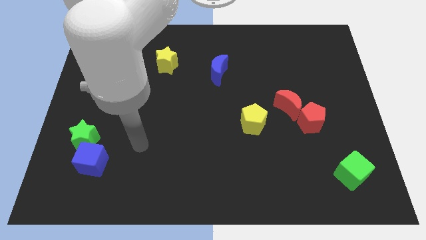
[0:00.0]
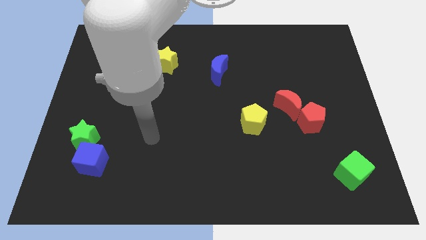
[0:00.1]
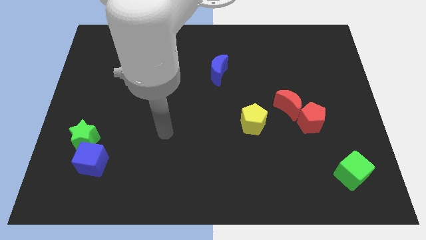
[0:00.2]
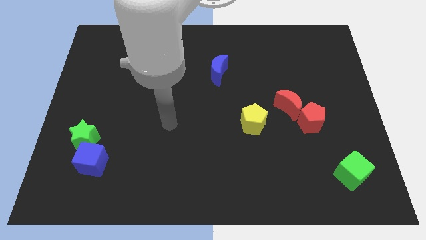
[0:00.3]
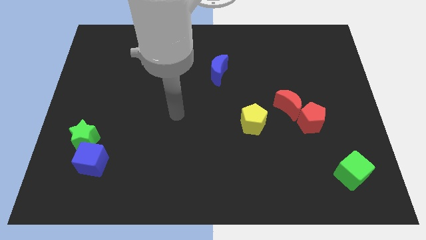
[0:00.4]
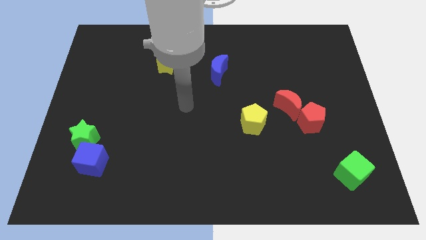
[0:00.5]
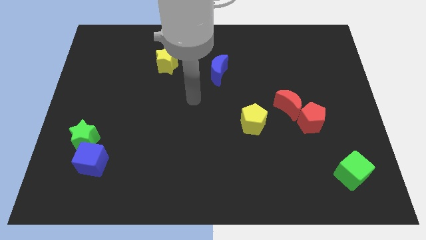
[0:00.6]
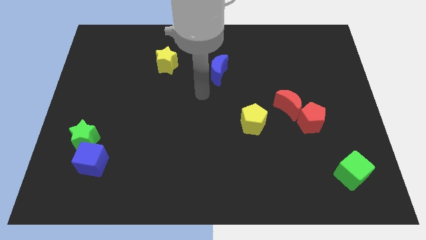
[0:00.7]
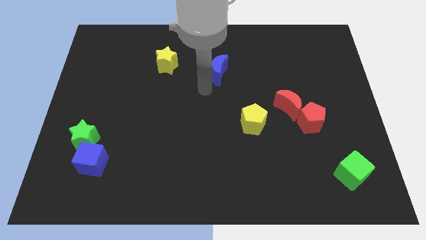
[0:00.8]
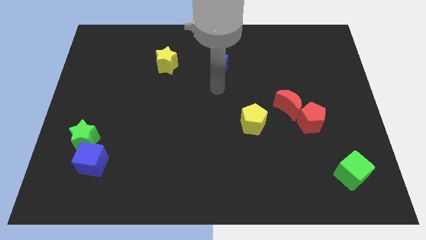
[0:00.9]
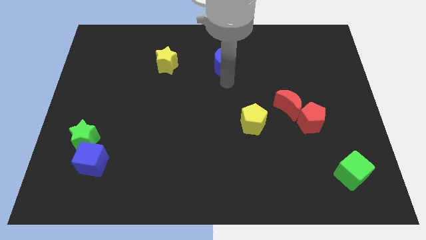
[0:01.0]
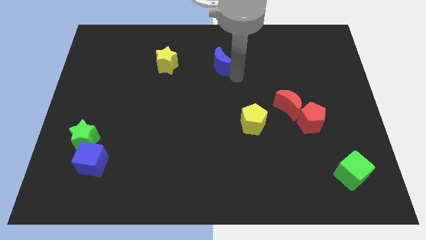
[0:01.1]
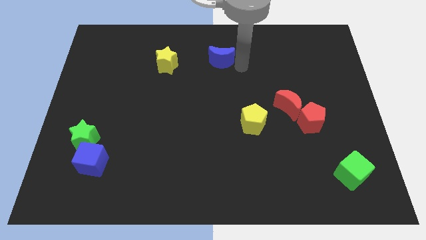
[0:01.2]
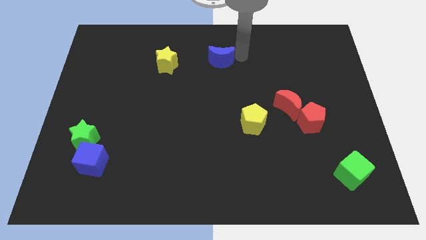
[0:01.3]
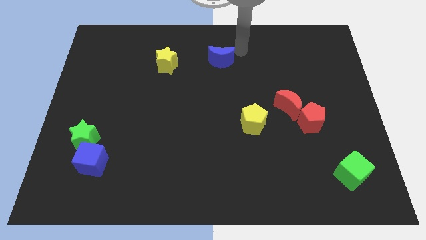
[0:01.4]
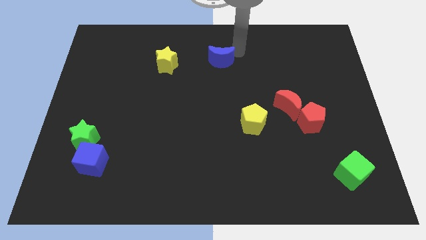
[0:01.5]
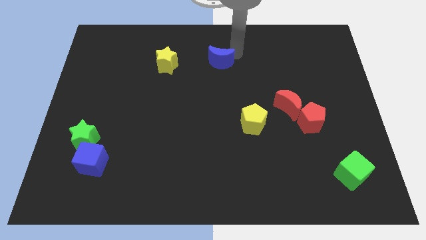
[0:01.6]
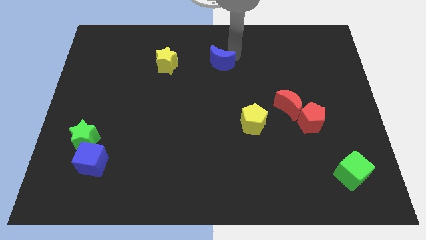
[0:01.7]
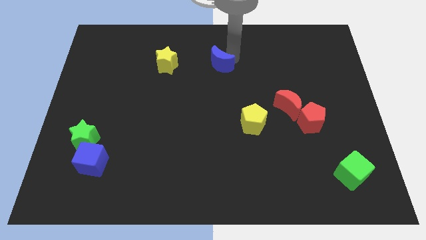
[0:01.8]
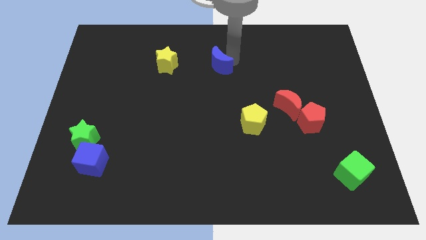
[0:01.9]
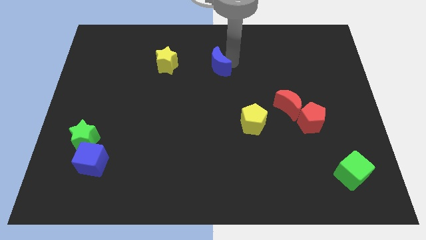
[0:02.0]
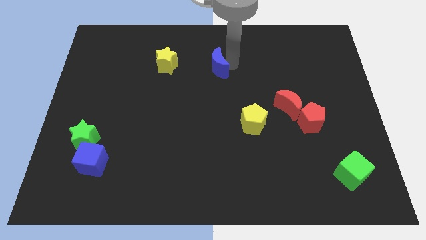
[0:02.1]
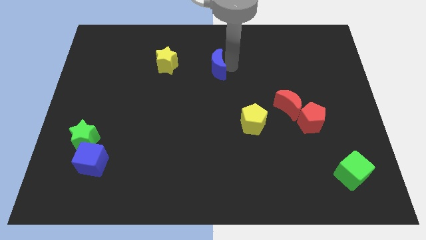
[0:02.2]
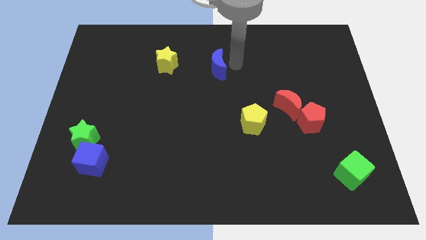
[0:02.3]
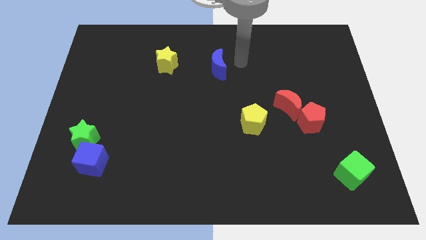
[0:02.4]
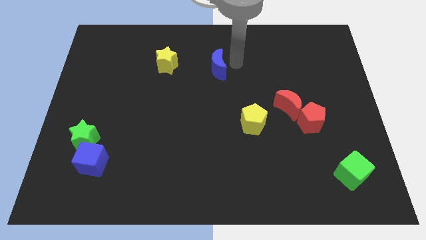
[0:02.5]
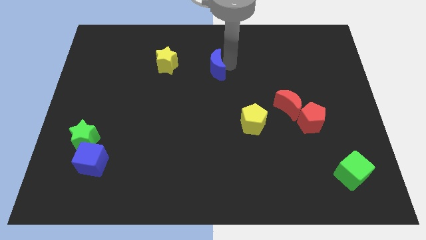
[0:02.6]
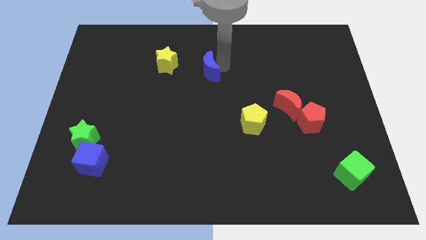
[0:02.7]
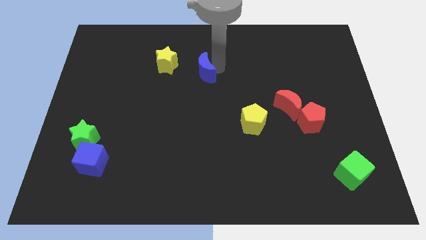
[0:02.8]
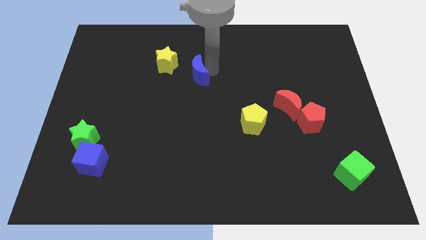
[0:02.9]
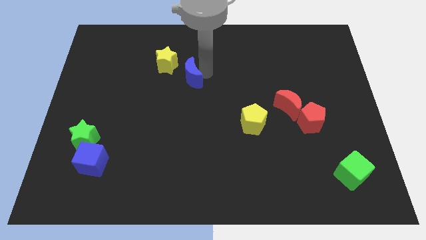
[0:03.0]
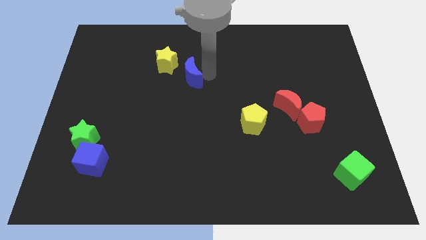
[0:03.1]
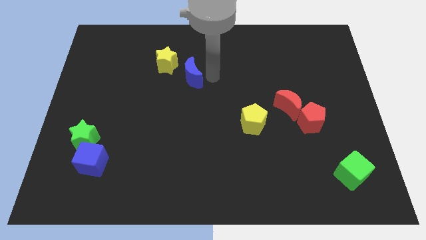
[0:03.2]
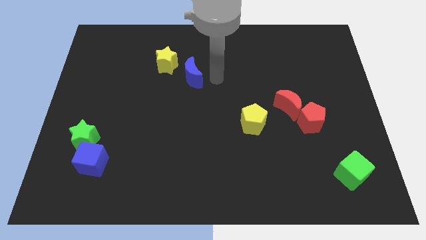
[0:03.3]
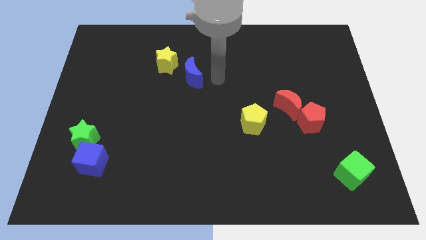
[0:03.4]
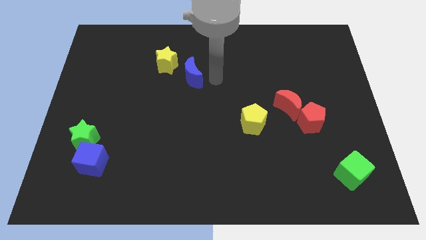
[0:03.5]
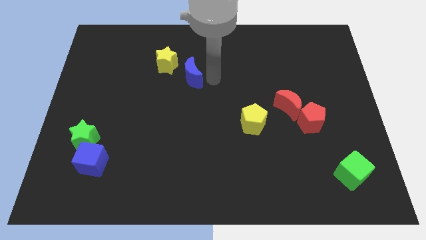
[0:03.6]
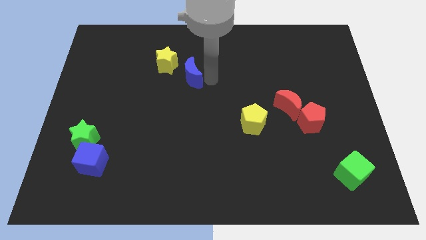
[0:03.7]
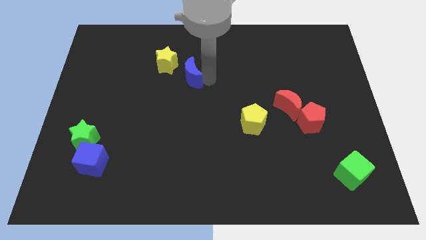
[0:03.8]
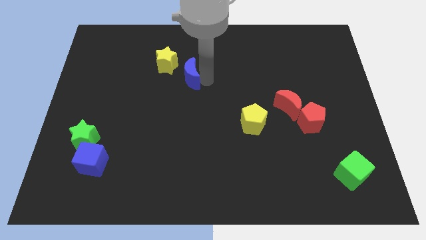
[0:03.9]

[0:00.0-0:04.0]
slightly push the blue moon to the left

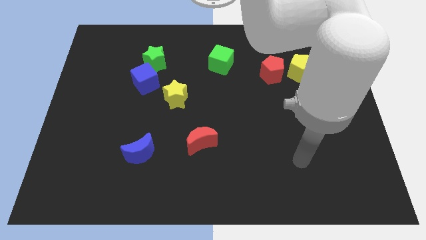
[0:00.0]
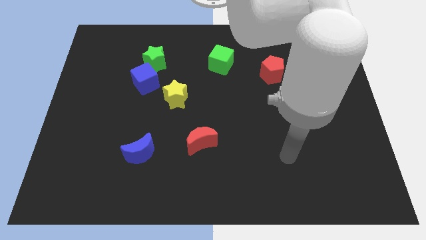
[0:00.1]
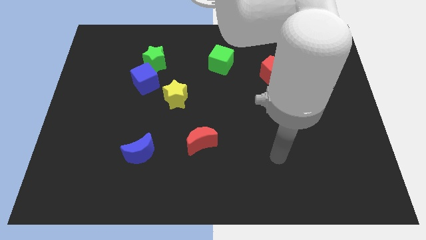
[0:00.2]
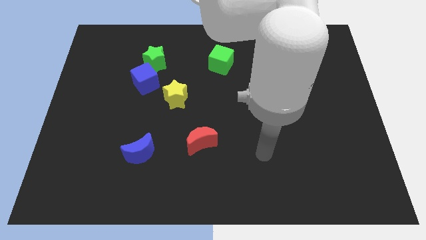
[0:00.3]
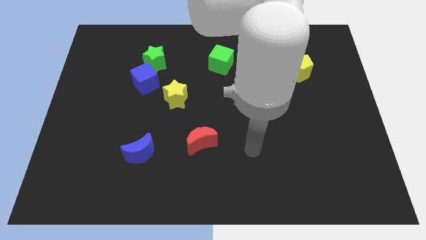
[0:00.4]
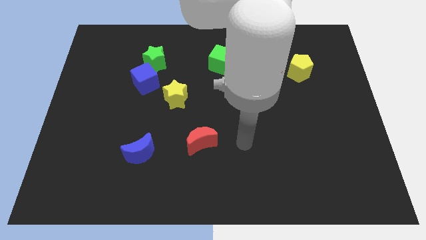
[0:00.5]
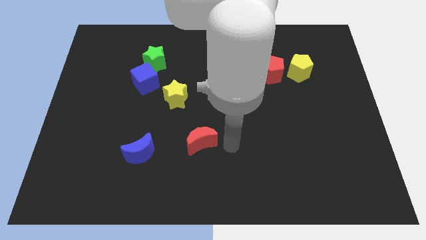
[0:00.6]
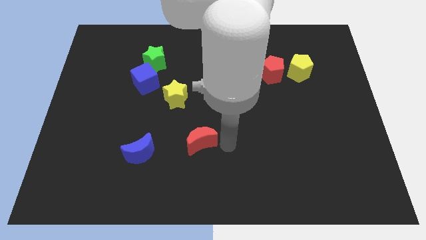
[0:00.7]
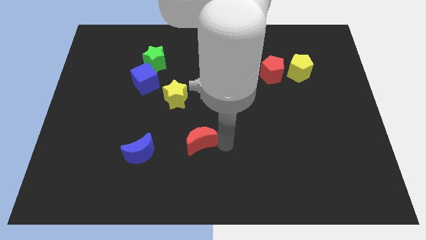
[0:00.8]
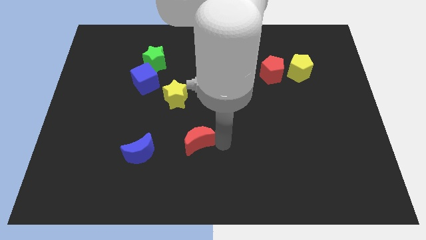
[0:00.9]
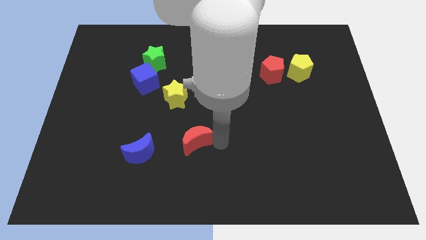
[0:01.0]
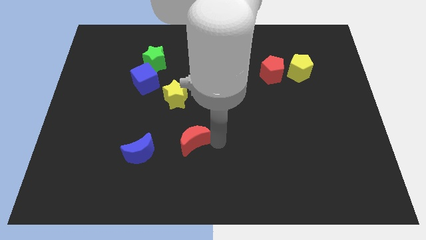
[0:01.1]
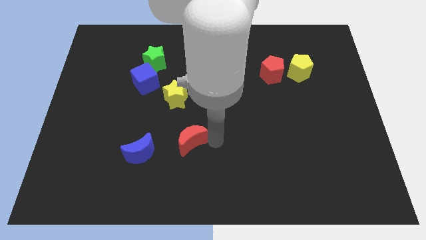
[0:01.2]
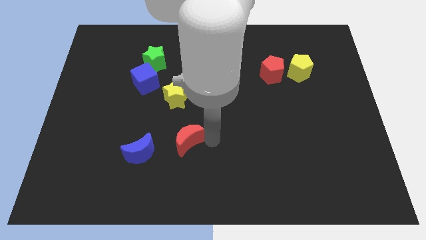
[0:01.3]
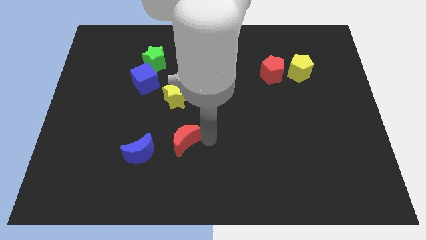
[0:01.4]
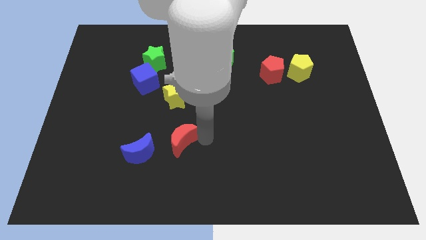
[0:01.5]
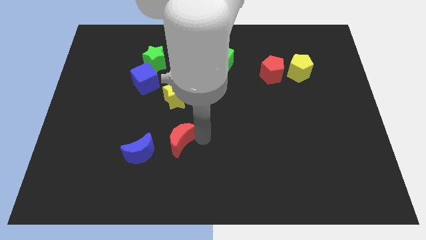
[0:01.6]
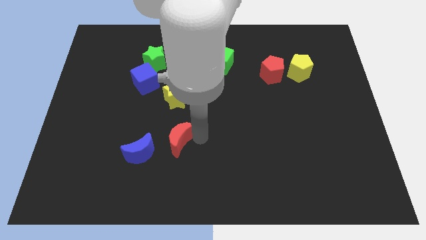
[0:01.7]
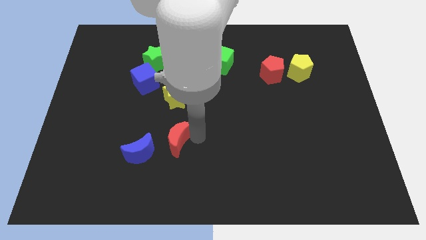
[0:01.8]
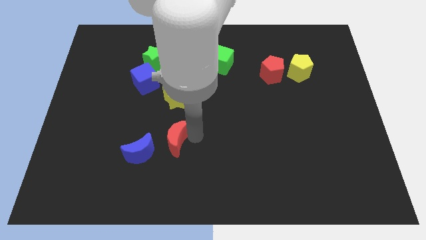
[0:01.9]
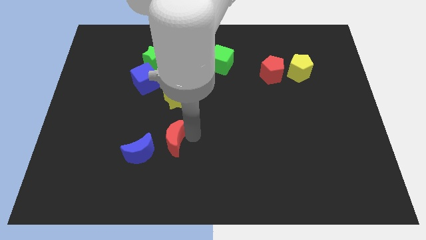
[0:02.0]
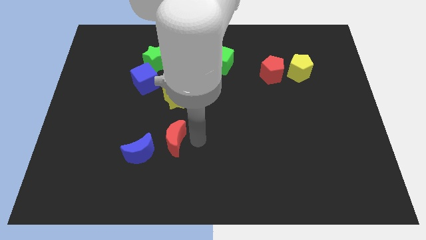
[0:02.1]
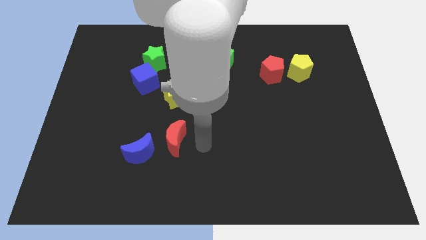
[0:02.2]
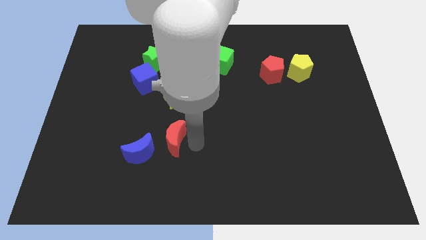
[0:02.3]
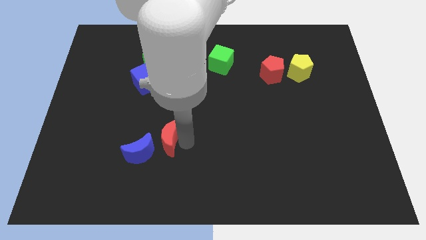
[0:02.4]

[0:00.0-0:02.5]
slide the red moon to the left a little

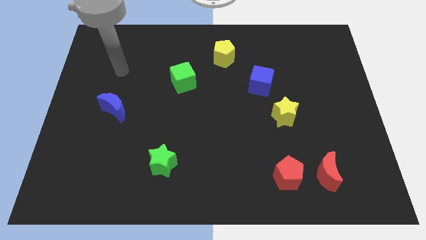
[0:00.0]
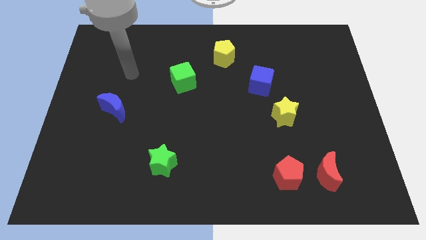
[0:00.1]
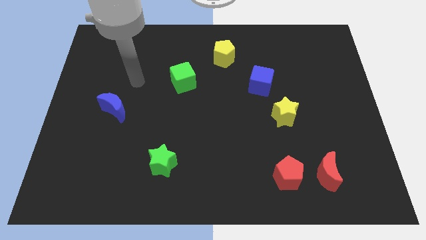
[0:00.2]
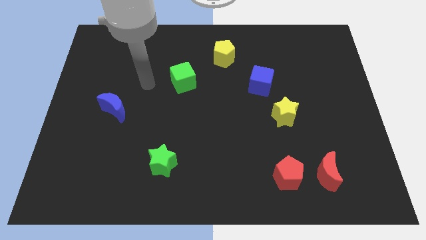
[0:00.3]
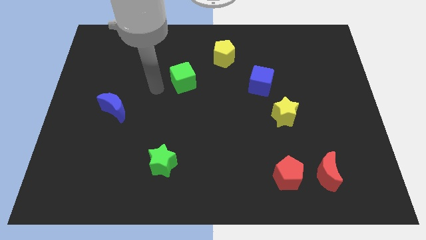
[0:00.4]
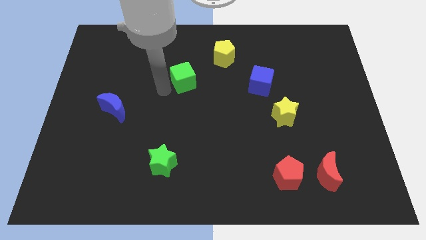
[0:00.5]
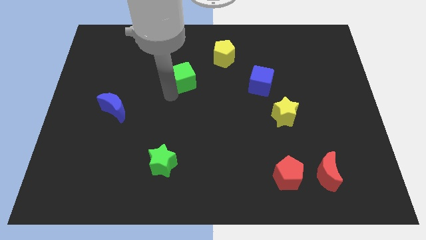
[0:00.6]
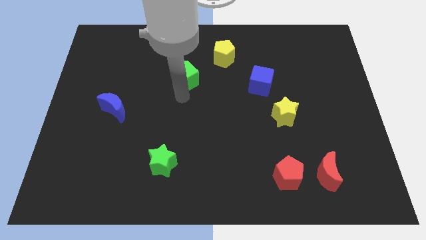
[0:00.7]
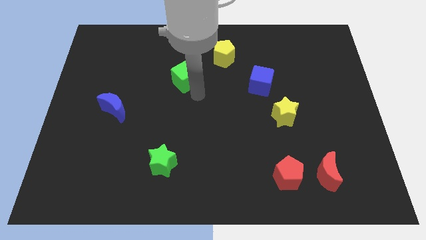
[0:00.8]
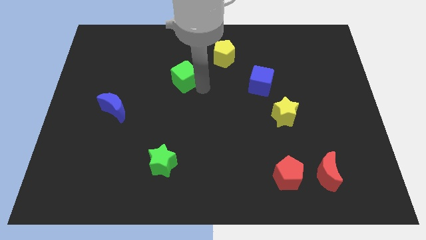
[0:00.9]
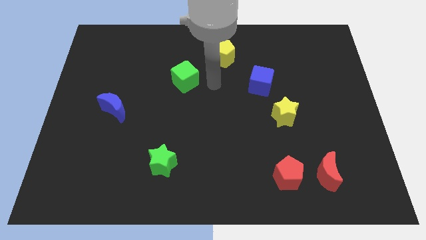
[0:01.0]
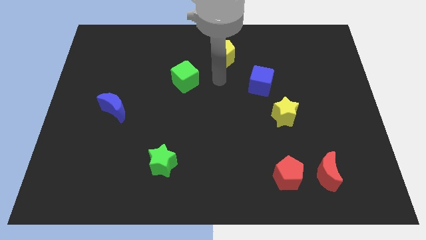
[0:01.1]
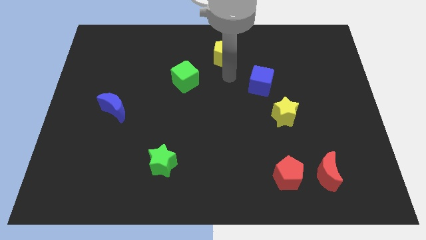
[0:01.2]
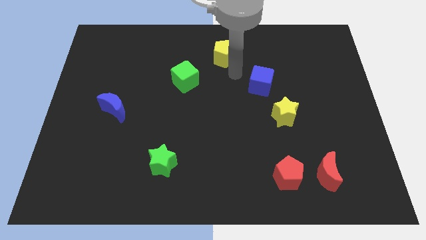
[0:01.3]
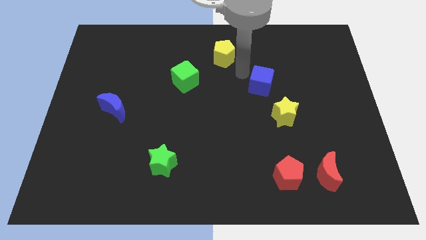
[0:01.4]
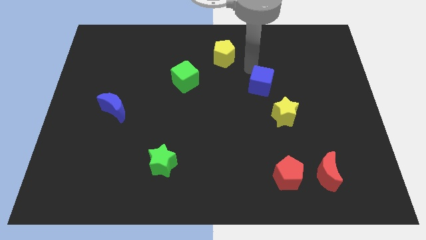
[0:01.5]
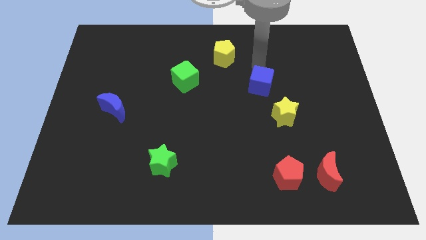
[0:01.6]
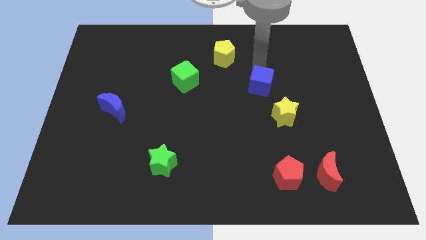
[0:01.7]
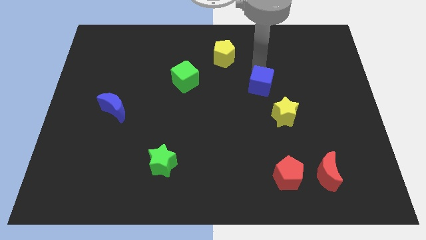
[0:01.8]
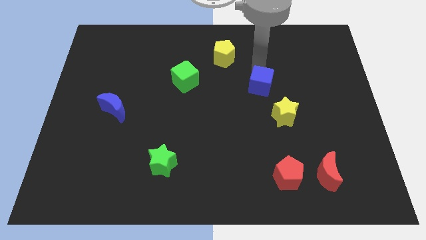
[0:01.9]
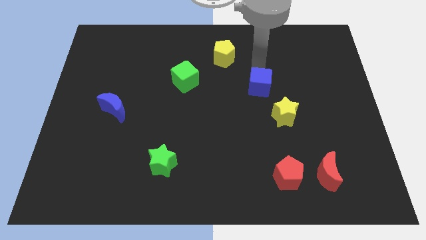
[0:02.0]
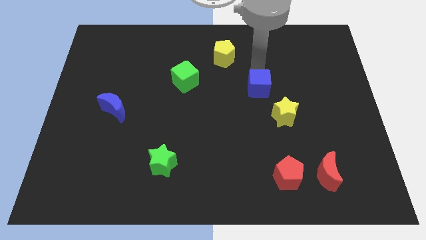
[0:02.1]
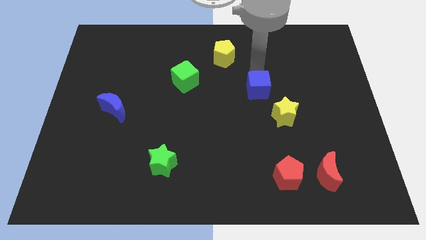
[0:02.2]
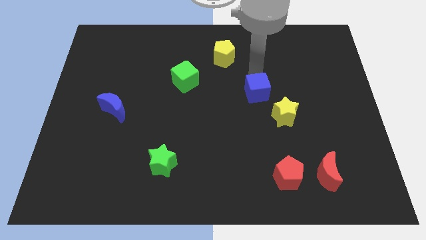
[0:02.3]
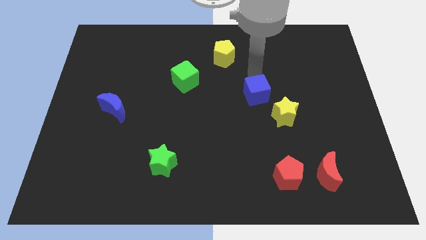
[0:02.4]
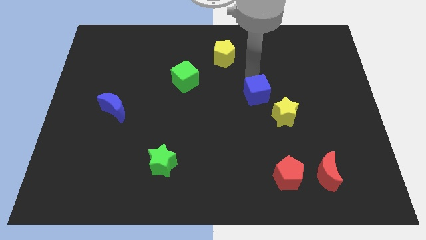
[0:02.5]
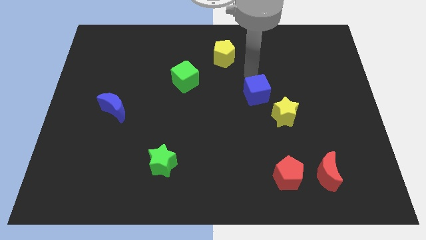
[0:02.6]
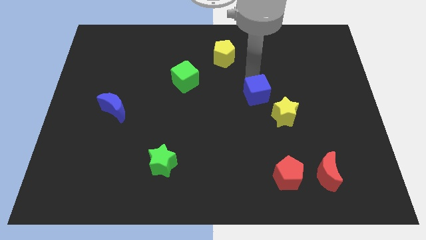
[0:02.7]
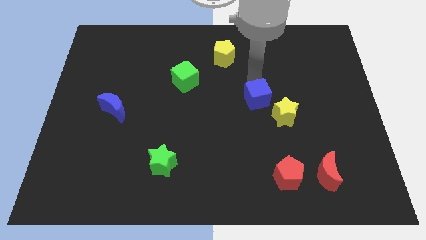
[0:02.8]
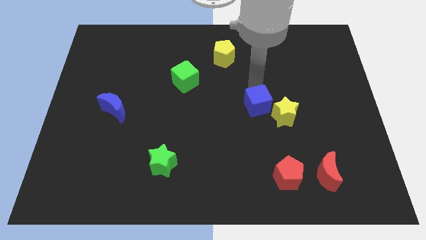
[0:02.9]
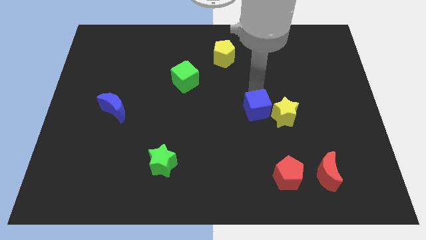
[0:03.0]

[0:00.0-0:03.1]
slightly move the blue cube downwards
